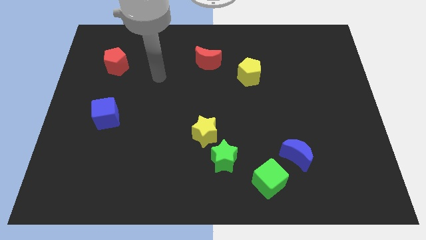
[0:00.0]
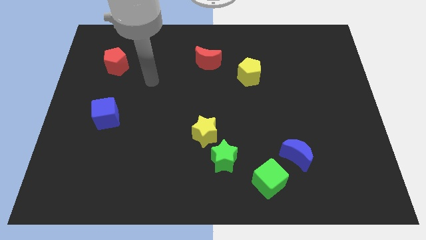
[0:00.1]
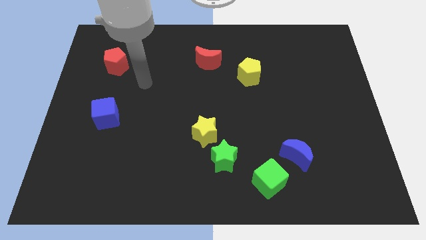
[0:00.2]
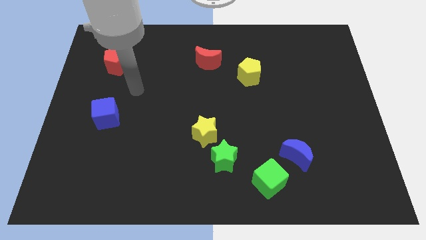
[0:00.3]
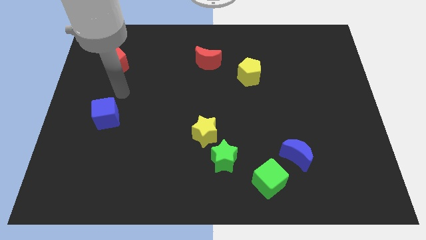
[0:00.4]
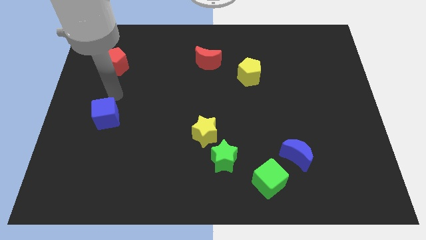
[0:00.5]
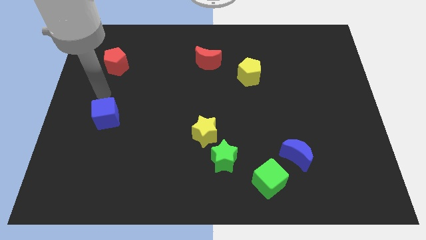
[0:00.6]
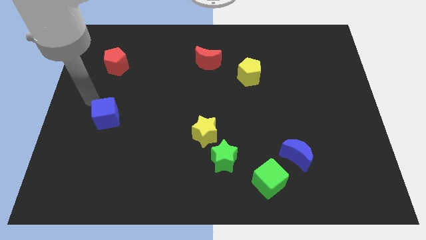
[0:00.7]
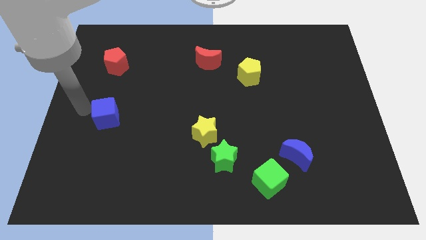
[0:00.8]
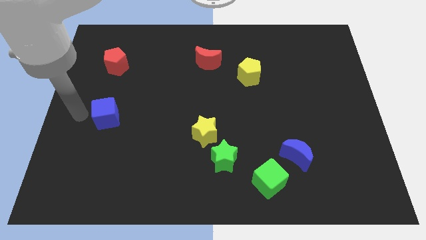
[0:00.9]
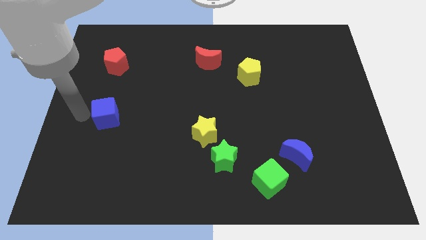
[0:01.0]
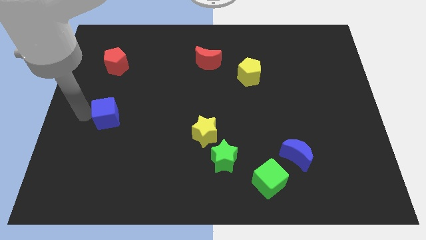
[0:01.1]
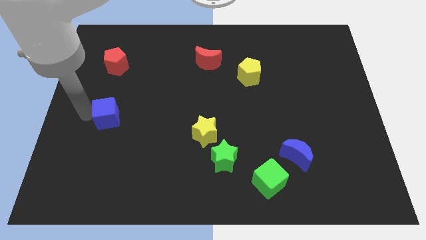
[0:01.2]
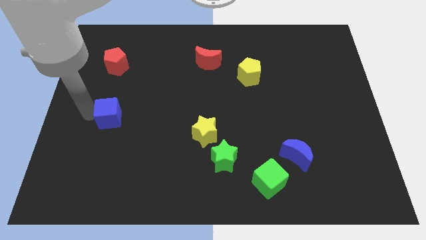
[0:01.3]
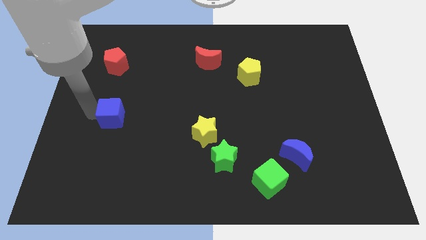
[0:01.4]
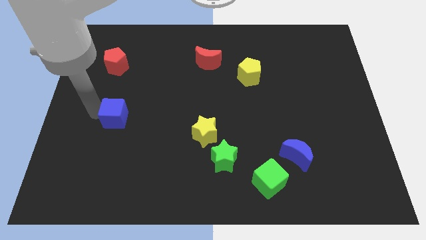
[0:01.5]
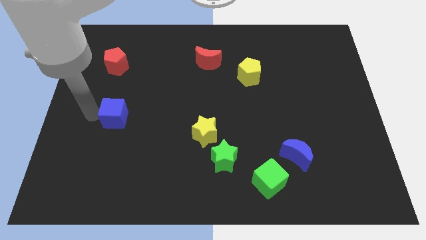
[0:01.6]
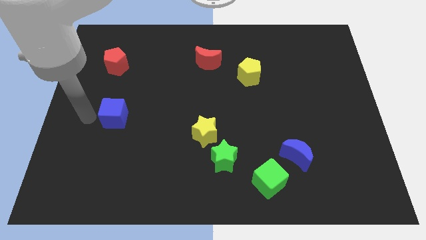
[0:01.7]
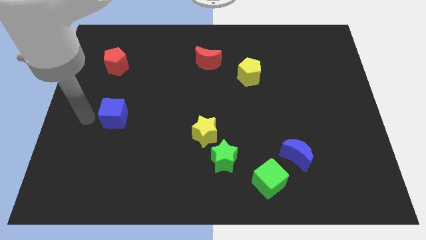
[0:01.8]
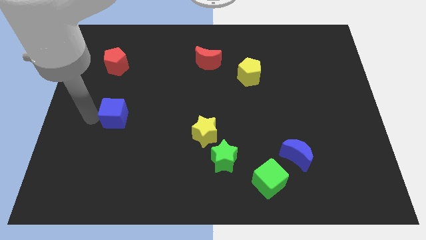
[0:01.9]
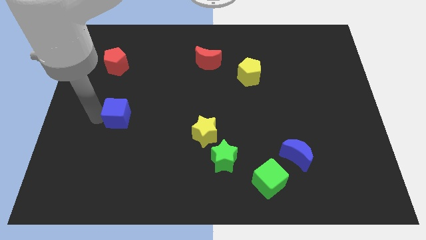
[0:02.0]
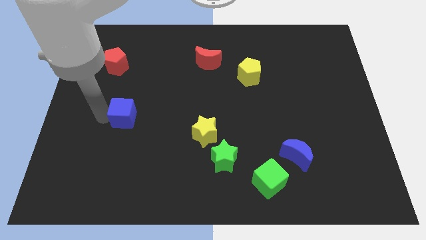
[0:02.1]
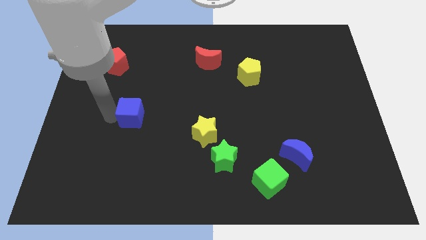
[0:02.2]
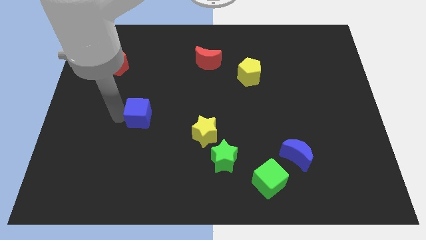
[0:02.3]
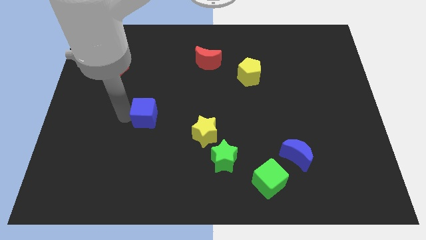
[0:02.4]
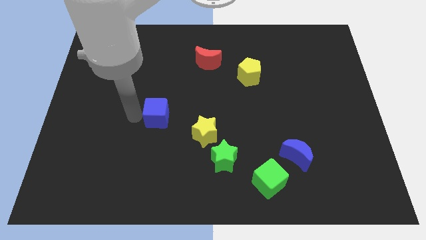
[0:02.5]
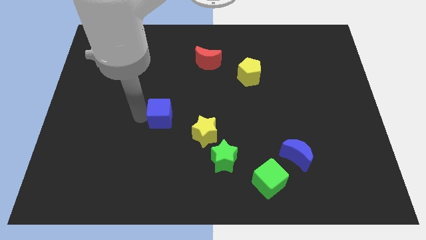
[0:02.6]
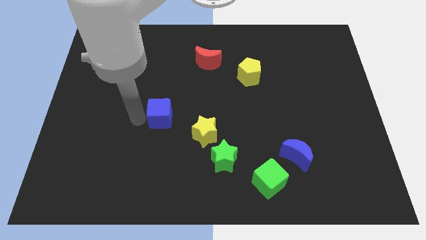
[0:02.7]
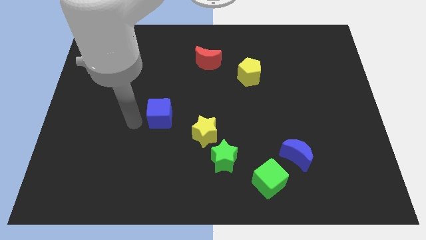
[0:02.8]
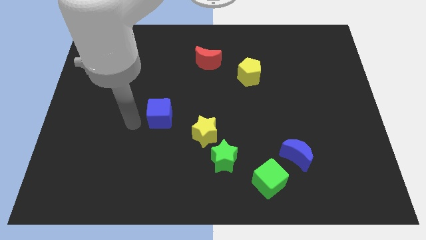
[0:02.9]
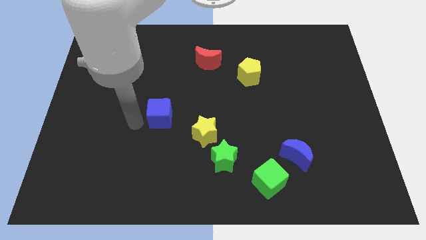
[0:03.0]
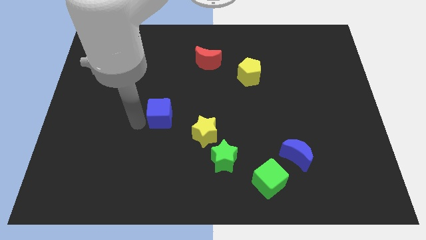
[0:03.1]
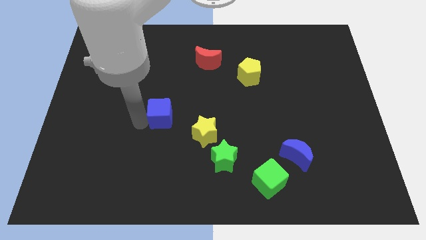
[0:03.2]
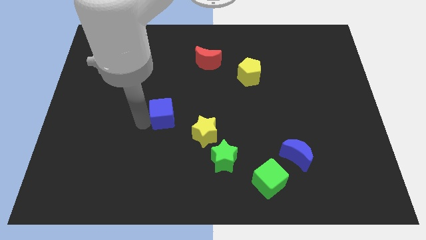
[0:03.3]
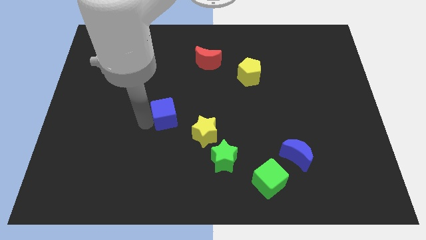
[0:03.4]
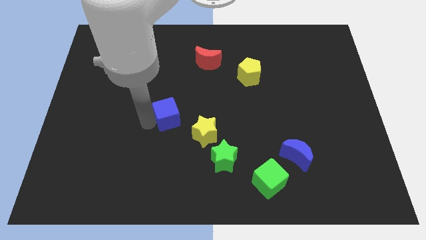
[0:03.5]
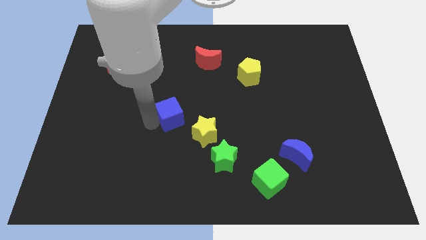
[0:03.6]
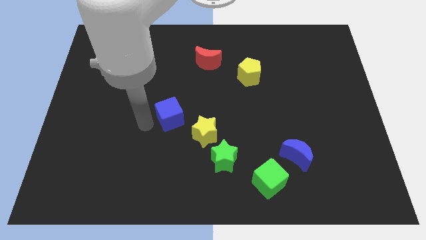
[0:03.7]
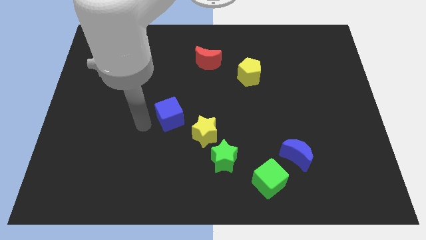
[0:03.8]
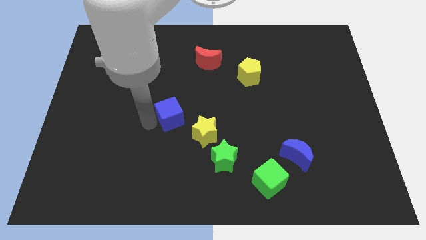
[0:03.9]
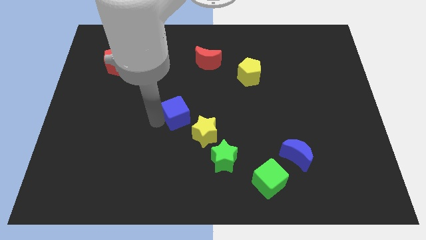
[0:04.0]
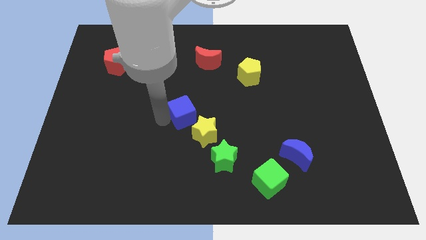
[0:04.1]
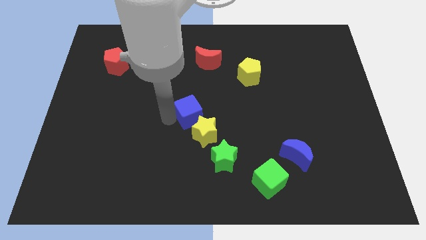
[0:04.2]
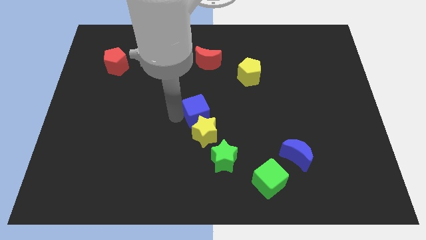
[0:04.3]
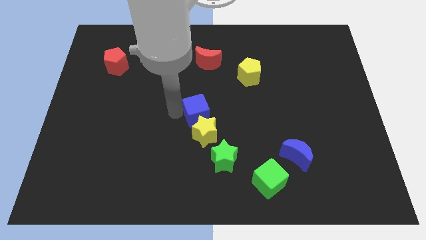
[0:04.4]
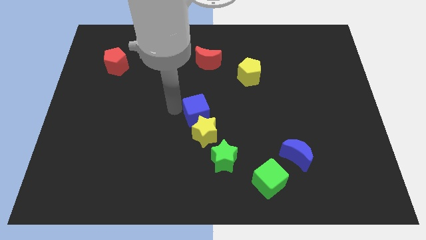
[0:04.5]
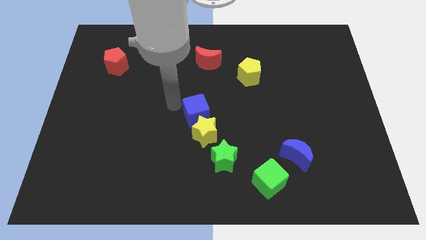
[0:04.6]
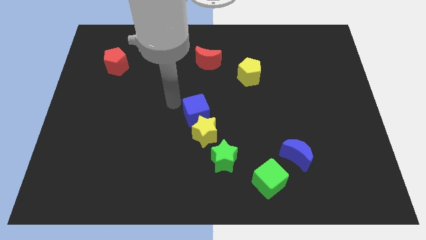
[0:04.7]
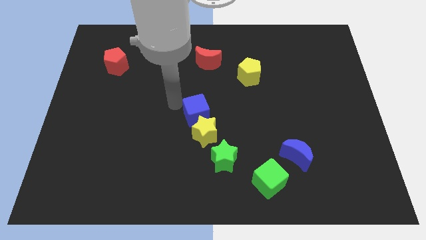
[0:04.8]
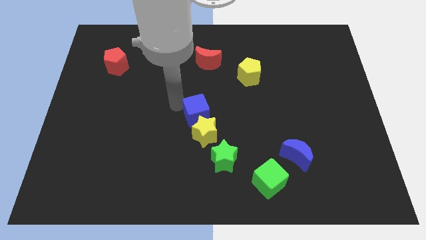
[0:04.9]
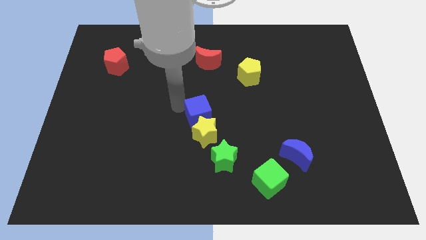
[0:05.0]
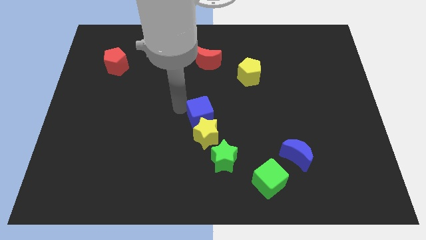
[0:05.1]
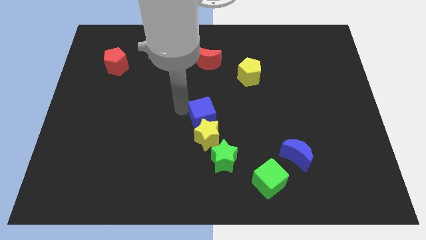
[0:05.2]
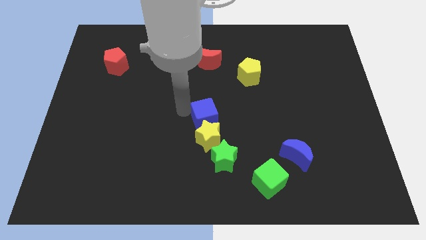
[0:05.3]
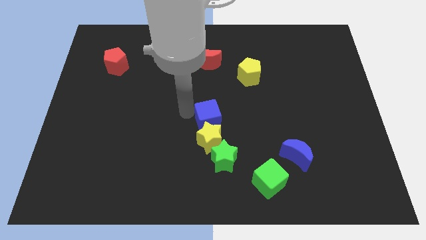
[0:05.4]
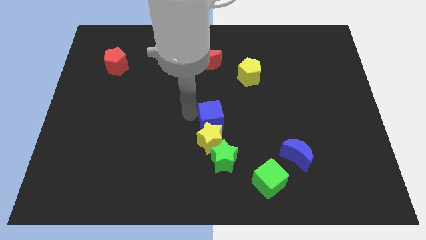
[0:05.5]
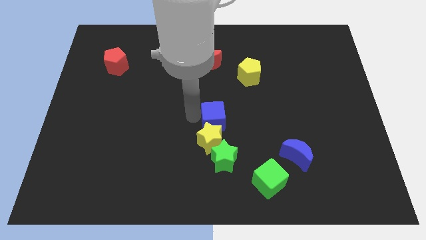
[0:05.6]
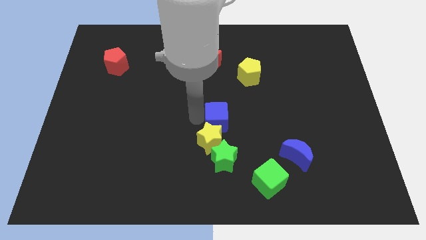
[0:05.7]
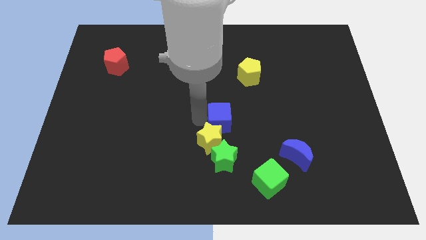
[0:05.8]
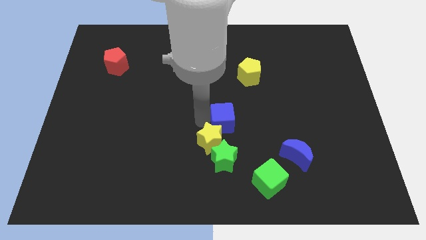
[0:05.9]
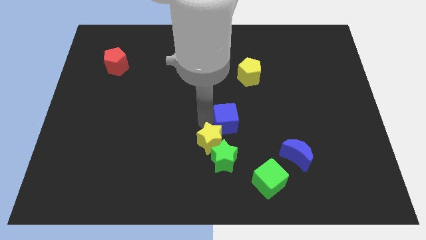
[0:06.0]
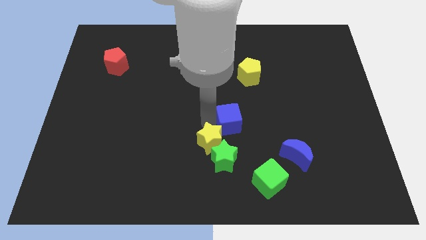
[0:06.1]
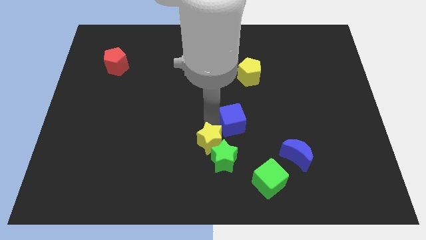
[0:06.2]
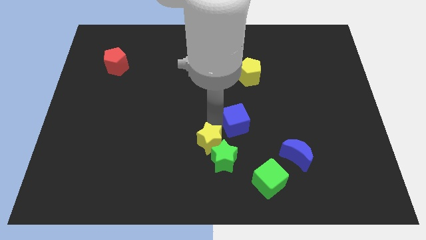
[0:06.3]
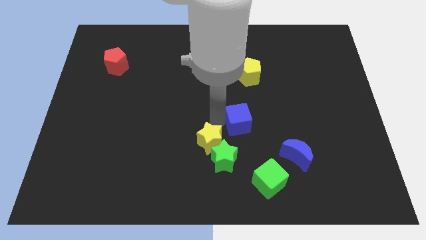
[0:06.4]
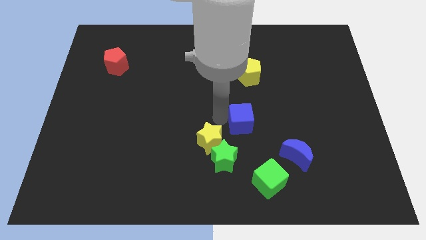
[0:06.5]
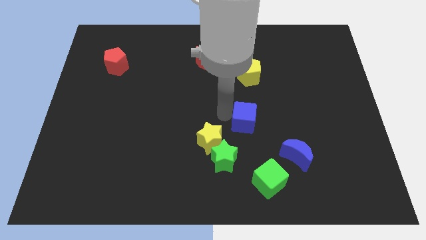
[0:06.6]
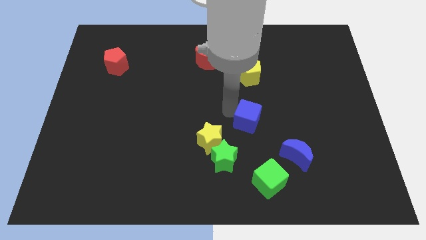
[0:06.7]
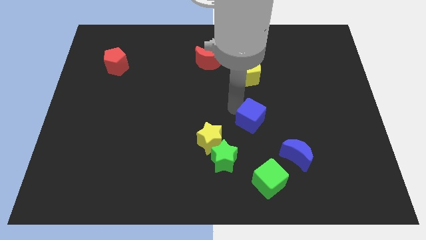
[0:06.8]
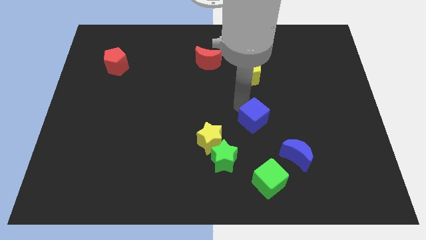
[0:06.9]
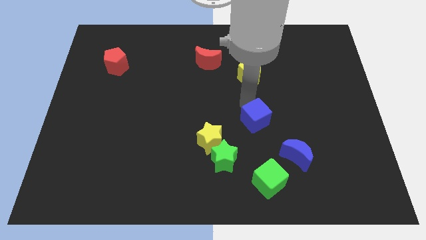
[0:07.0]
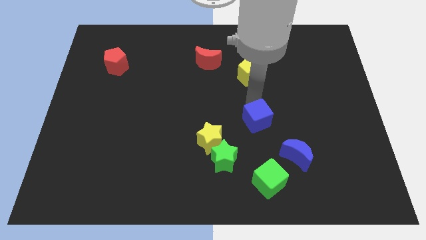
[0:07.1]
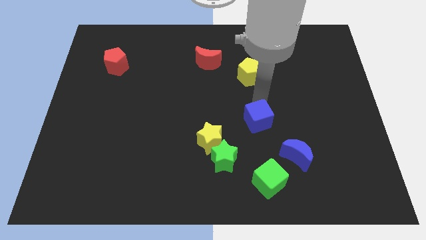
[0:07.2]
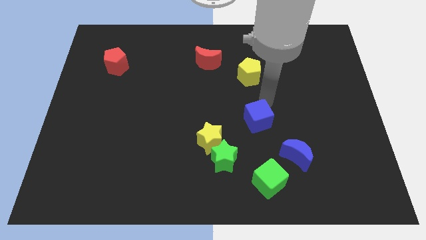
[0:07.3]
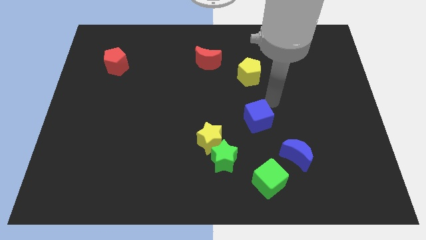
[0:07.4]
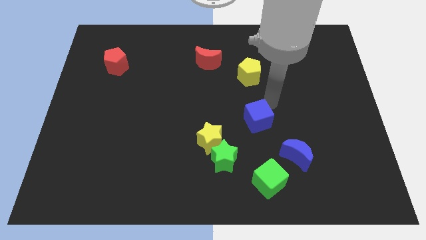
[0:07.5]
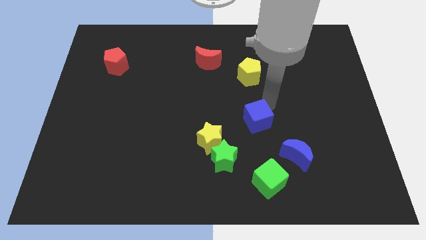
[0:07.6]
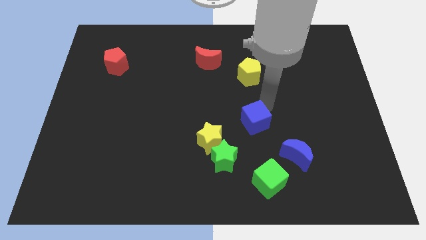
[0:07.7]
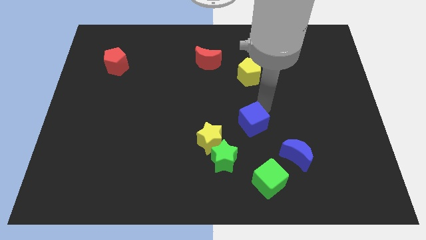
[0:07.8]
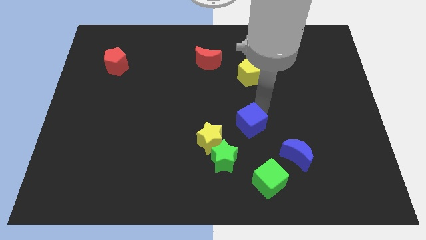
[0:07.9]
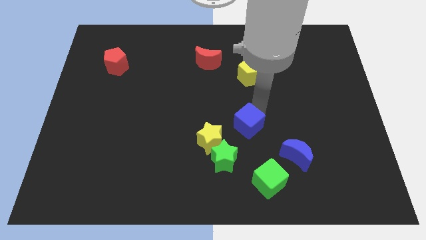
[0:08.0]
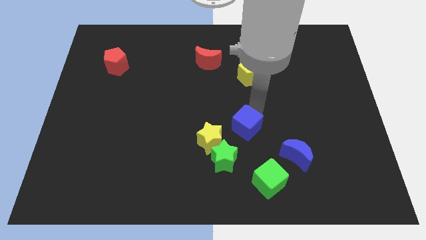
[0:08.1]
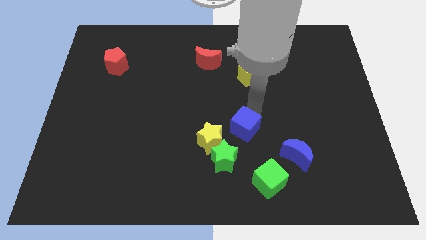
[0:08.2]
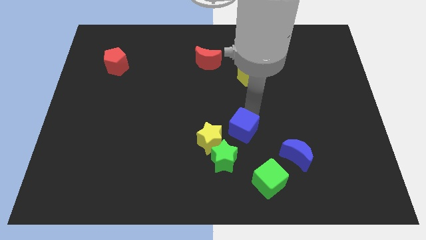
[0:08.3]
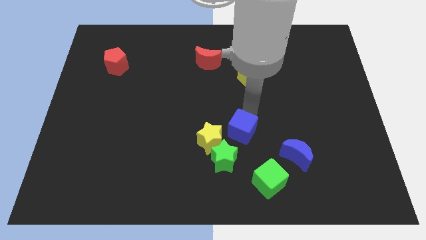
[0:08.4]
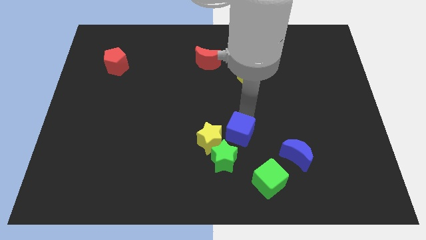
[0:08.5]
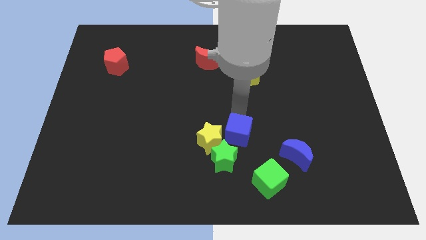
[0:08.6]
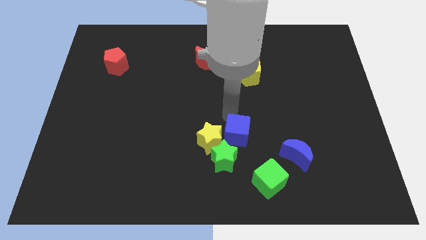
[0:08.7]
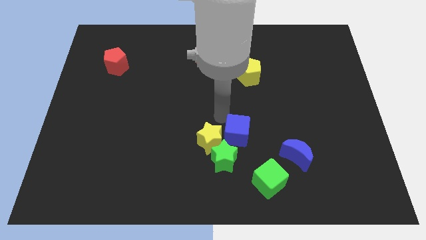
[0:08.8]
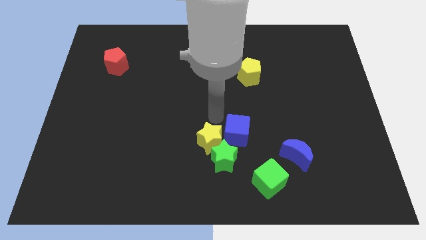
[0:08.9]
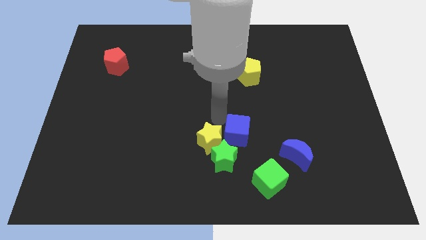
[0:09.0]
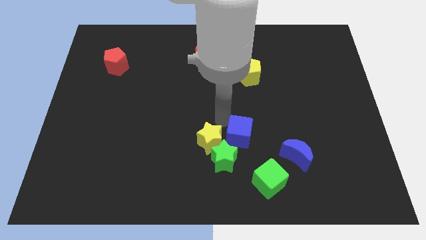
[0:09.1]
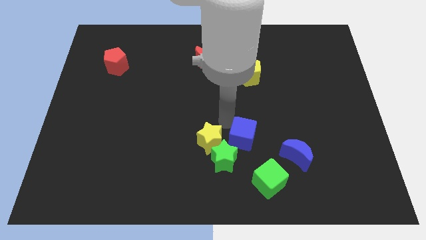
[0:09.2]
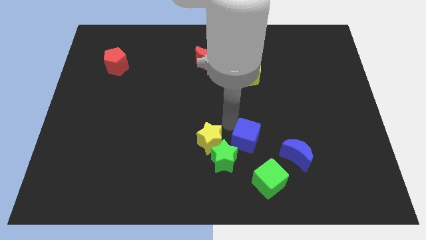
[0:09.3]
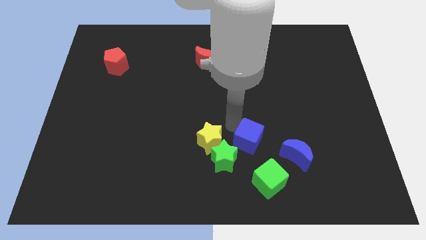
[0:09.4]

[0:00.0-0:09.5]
slide the blue cube to the right side of the green star
